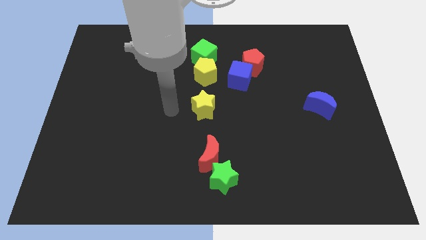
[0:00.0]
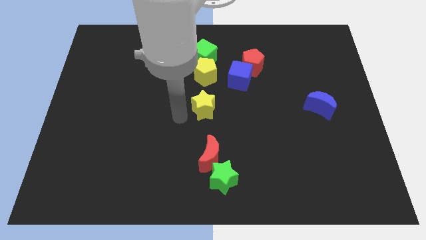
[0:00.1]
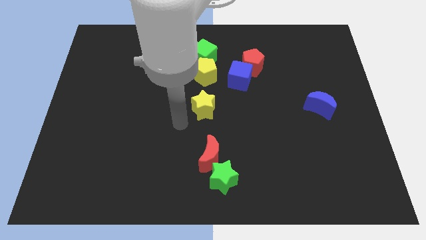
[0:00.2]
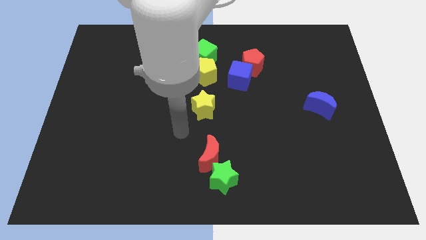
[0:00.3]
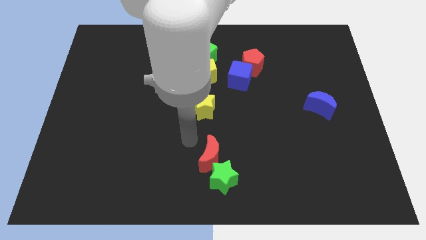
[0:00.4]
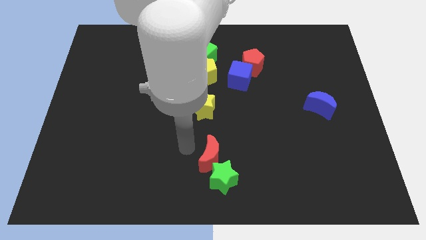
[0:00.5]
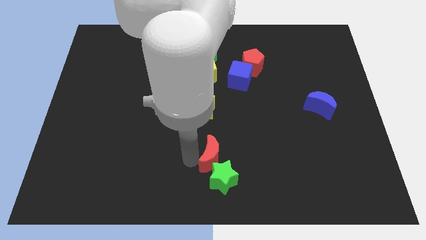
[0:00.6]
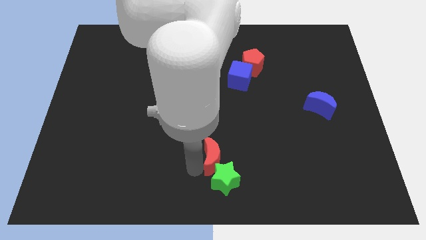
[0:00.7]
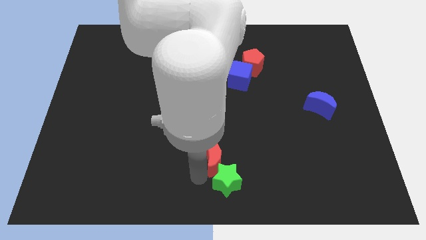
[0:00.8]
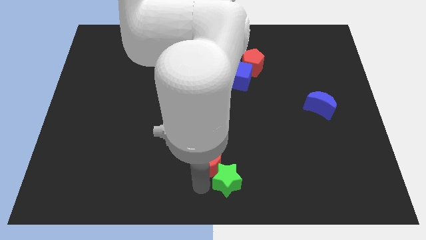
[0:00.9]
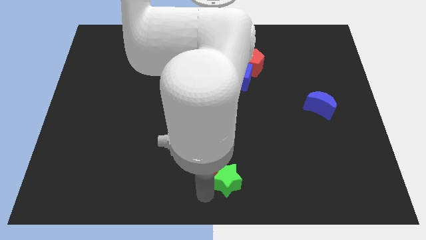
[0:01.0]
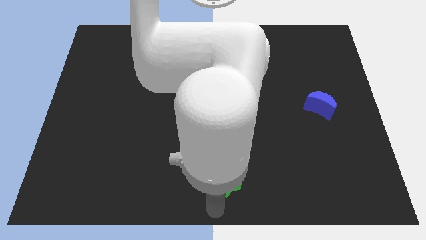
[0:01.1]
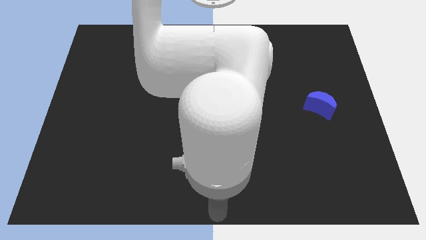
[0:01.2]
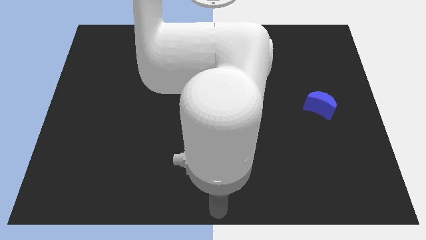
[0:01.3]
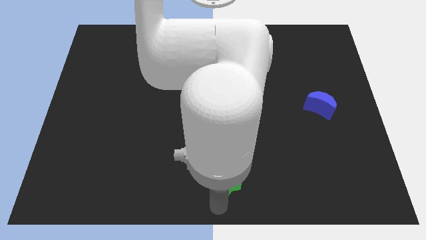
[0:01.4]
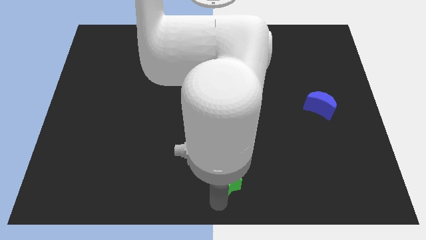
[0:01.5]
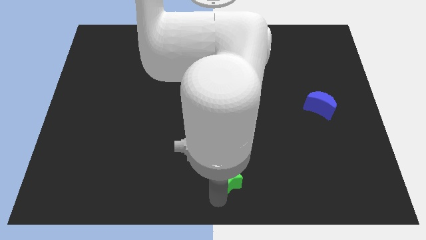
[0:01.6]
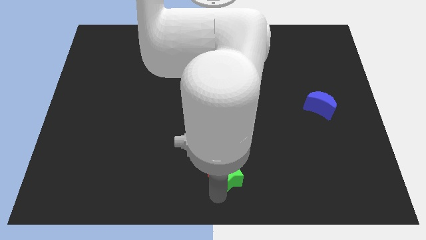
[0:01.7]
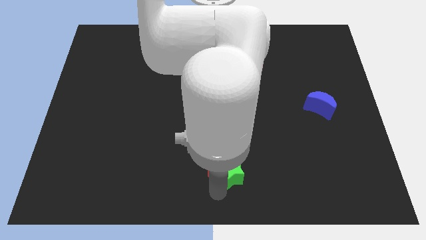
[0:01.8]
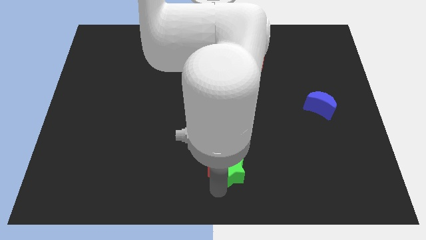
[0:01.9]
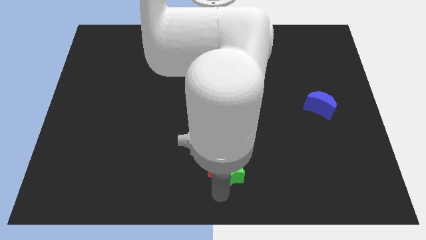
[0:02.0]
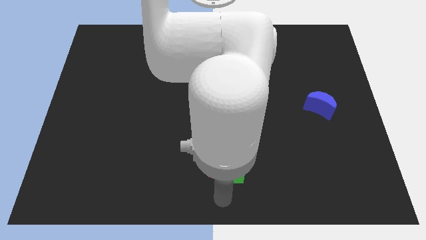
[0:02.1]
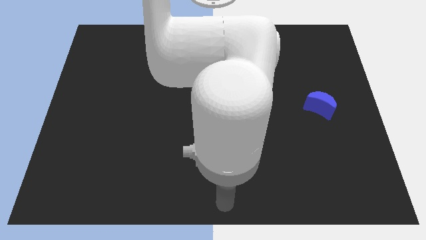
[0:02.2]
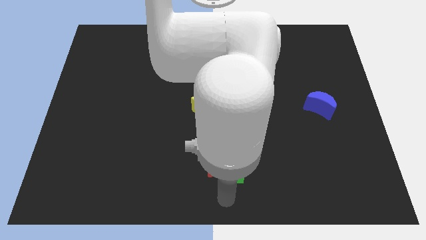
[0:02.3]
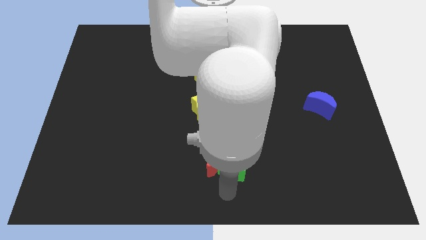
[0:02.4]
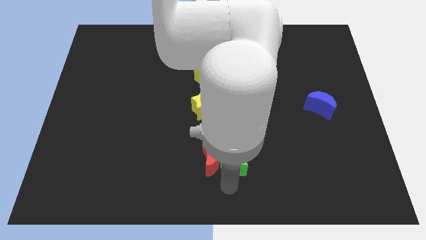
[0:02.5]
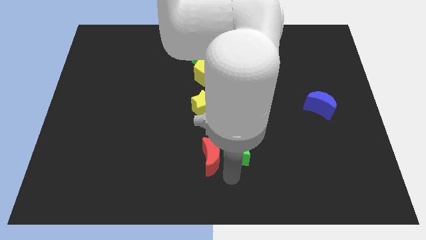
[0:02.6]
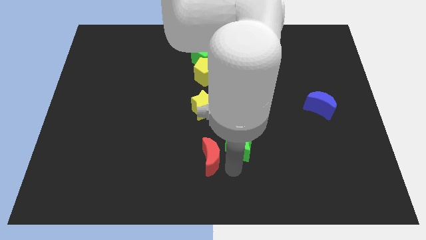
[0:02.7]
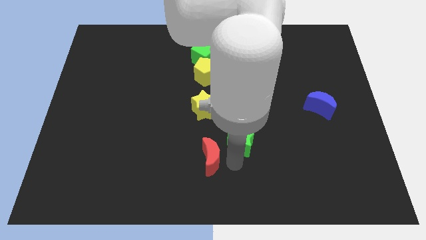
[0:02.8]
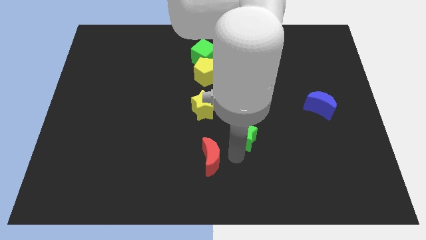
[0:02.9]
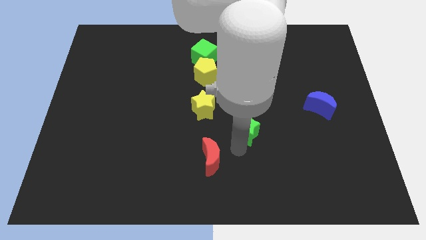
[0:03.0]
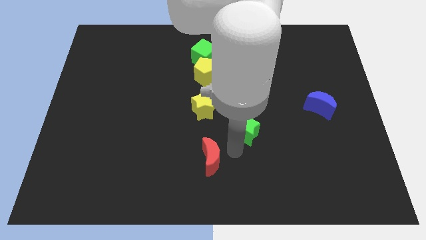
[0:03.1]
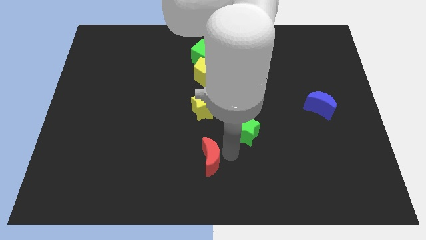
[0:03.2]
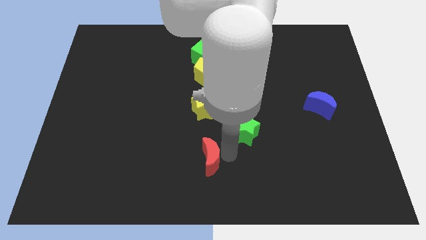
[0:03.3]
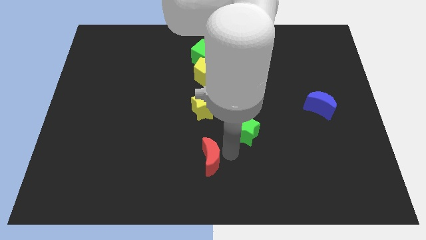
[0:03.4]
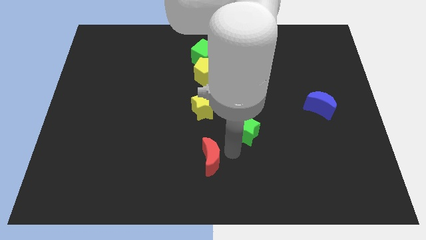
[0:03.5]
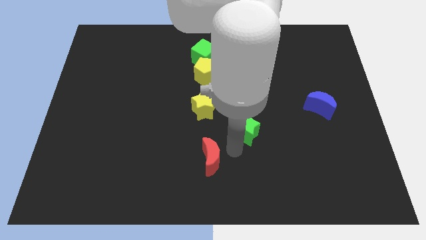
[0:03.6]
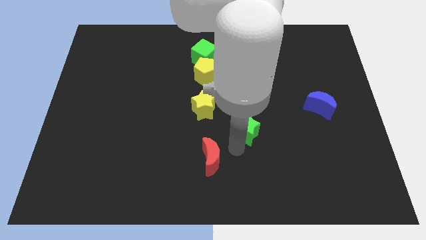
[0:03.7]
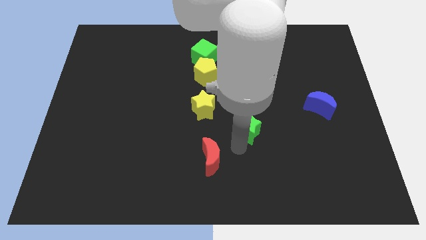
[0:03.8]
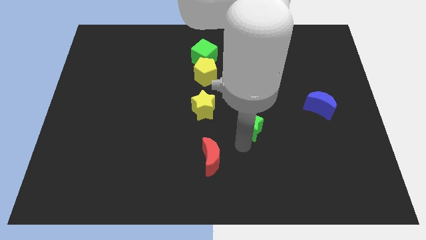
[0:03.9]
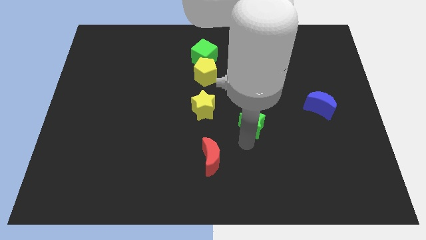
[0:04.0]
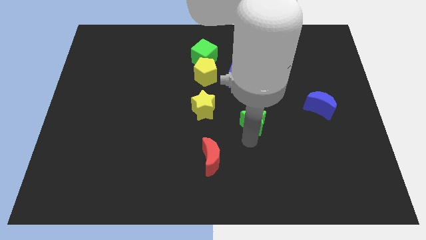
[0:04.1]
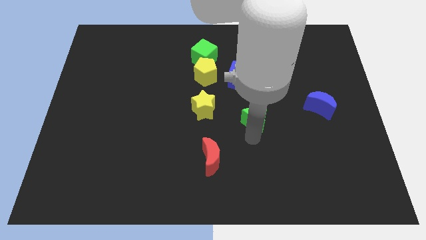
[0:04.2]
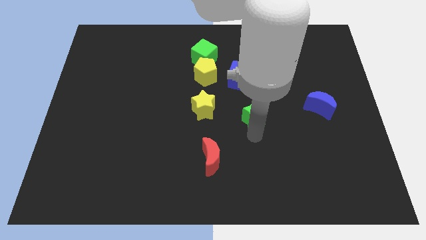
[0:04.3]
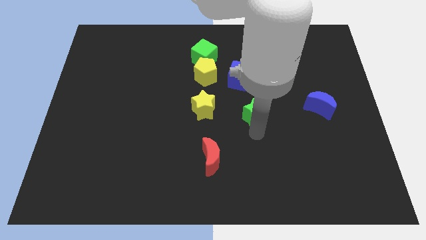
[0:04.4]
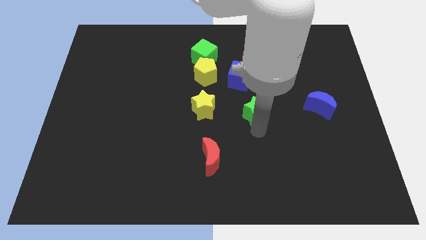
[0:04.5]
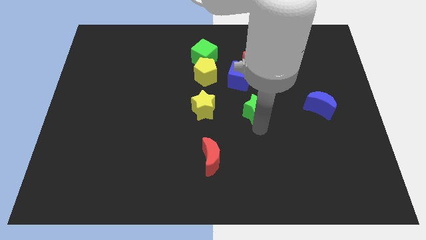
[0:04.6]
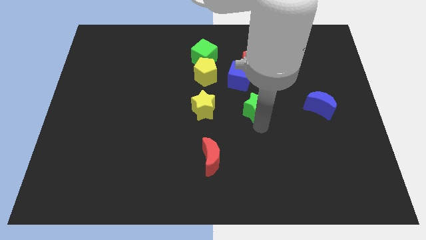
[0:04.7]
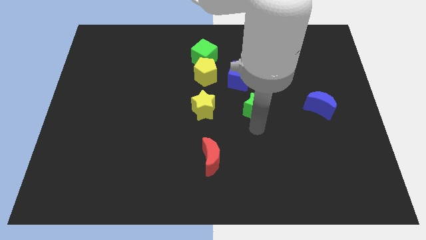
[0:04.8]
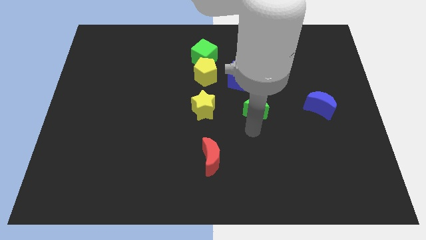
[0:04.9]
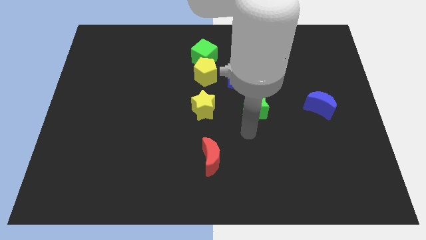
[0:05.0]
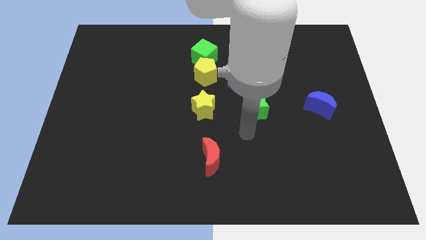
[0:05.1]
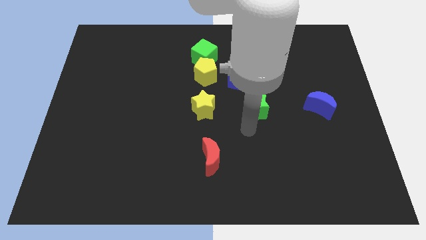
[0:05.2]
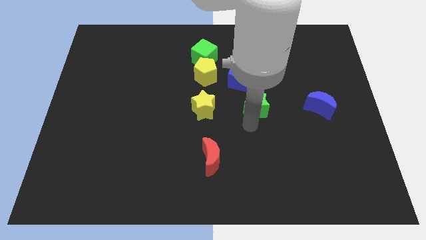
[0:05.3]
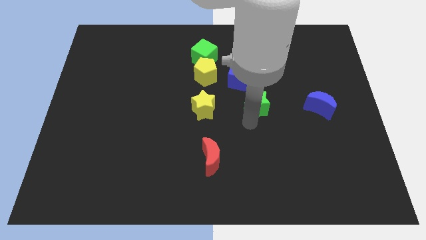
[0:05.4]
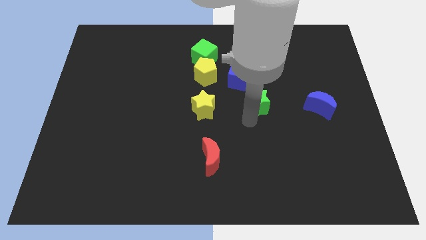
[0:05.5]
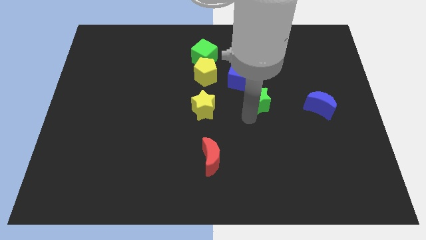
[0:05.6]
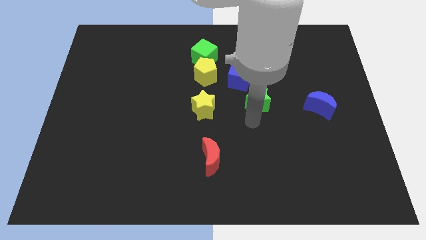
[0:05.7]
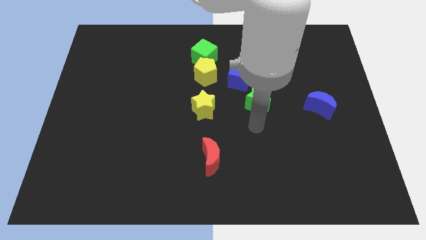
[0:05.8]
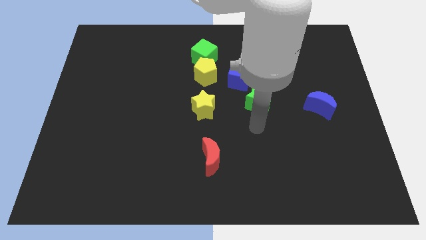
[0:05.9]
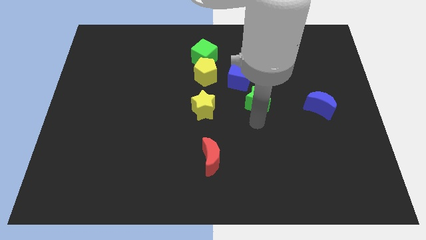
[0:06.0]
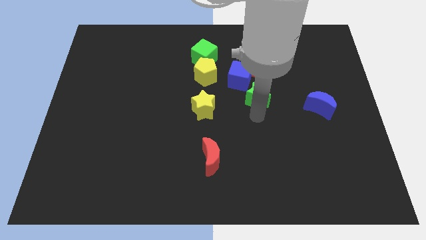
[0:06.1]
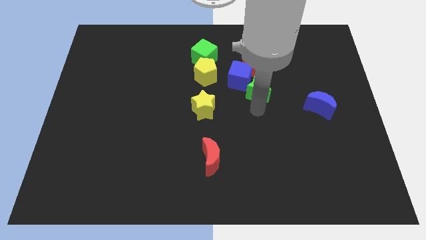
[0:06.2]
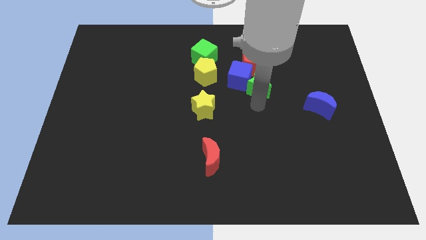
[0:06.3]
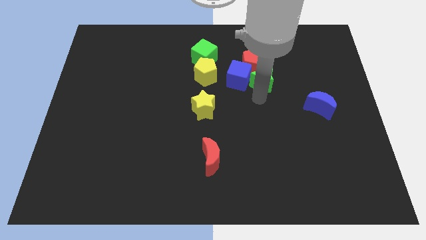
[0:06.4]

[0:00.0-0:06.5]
put the green star towards the red pentagon
